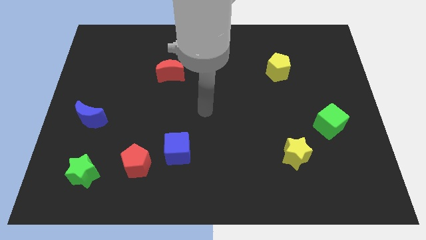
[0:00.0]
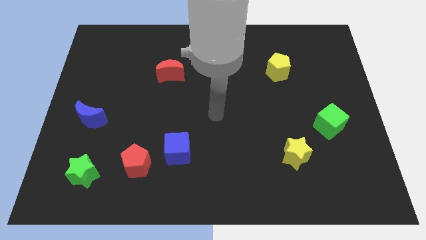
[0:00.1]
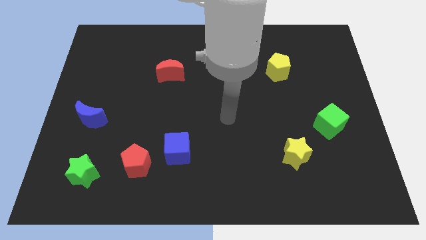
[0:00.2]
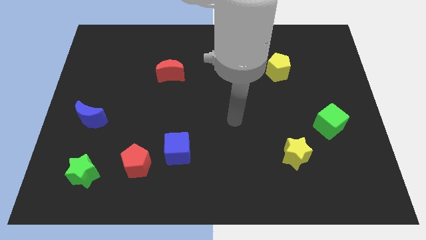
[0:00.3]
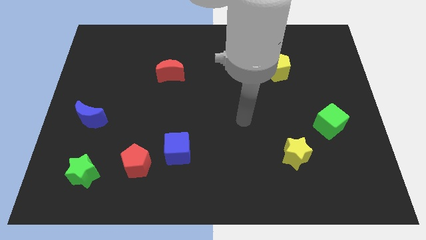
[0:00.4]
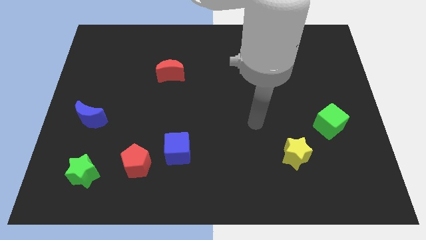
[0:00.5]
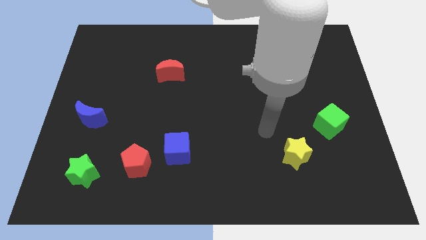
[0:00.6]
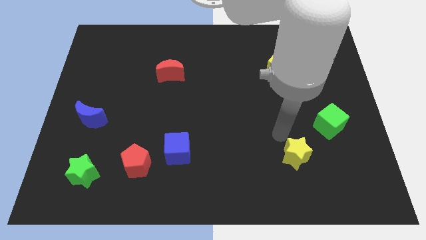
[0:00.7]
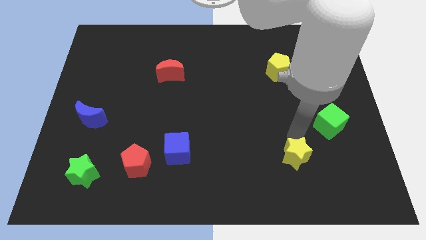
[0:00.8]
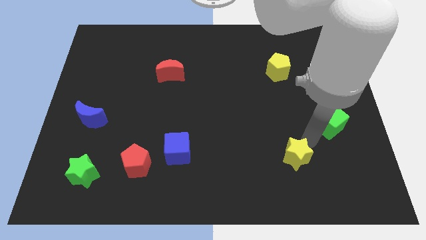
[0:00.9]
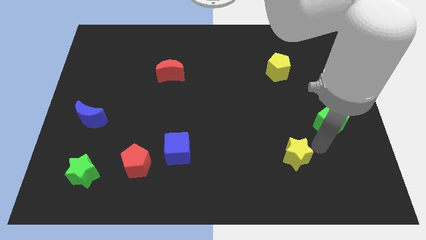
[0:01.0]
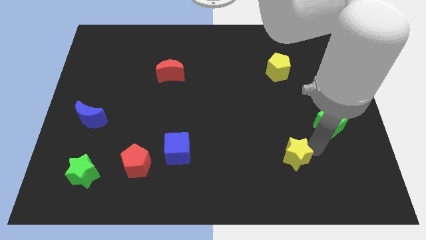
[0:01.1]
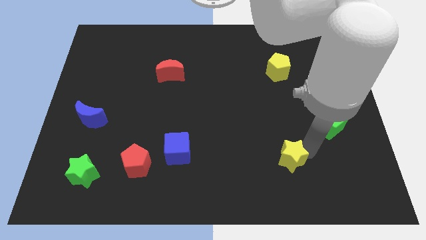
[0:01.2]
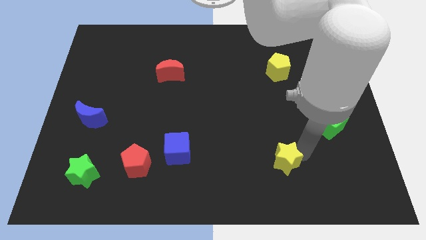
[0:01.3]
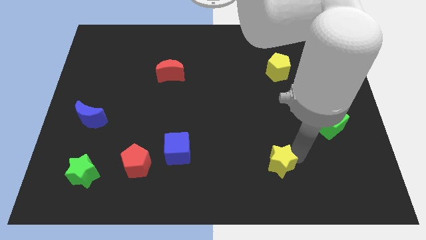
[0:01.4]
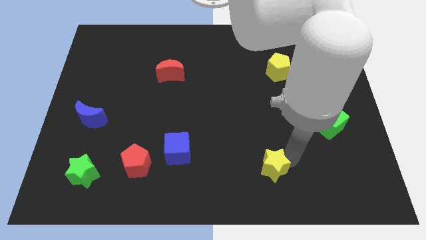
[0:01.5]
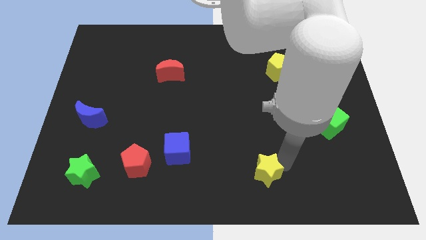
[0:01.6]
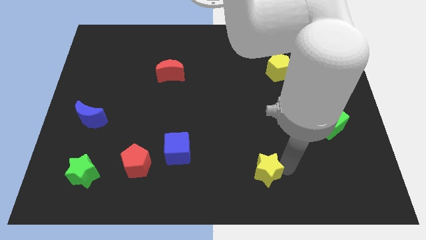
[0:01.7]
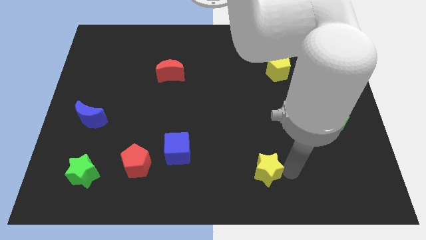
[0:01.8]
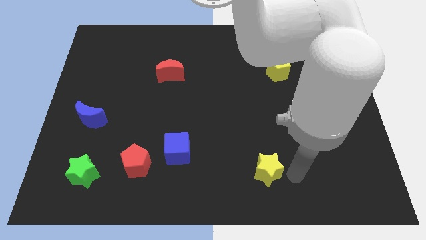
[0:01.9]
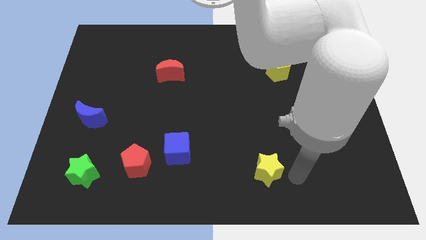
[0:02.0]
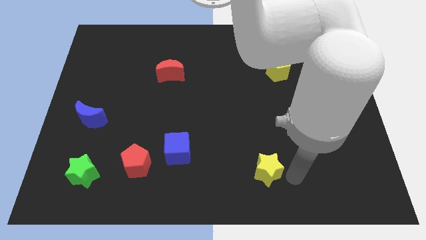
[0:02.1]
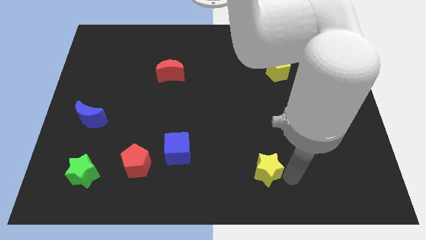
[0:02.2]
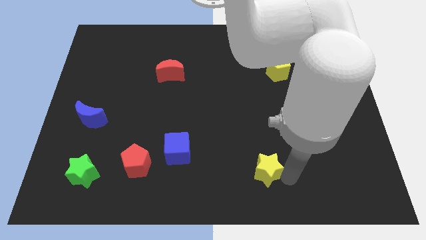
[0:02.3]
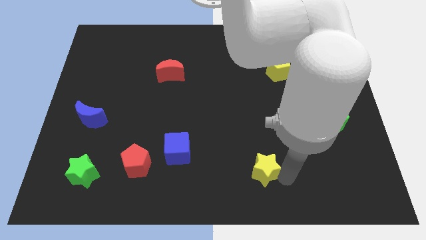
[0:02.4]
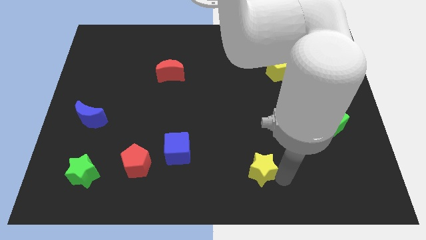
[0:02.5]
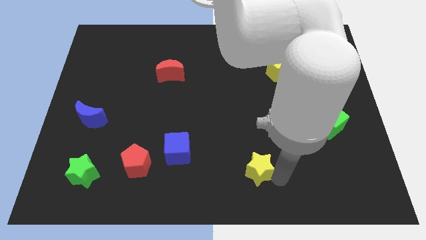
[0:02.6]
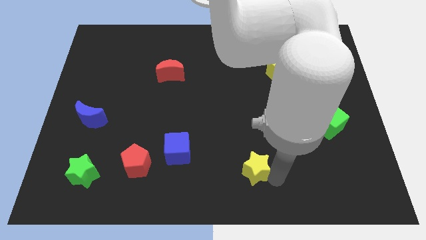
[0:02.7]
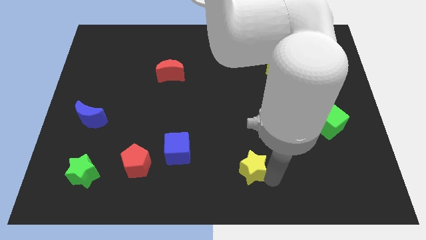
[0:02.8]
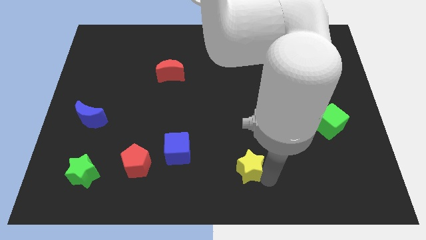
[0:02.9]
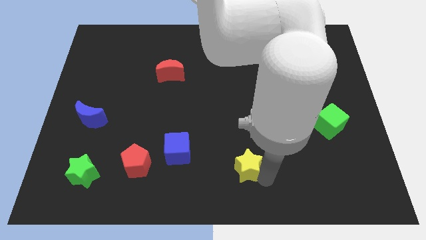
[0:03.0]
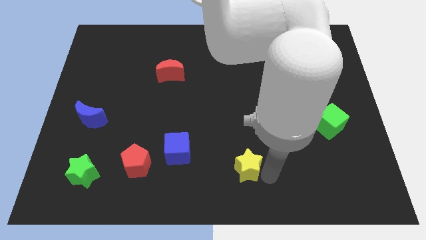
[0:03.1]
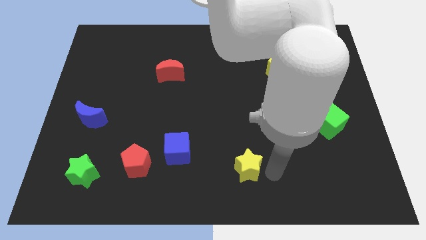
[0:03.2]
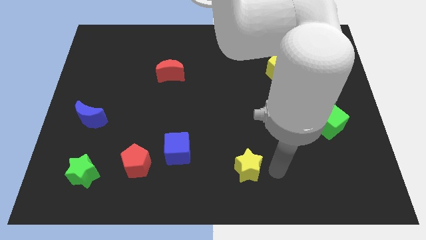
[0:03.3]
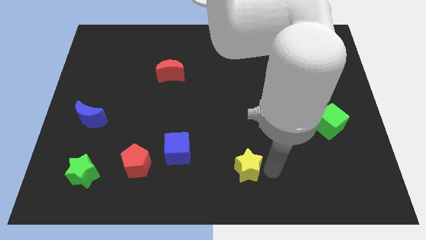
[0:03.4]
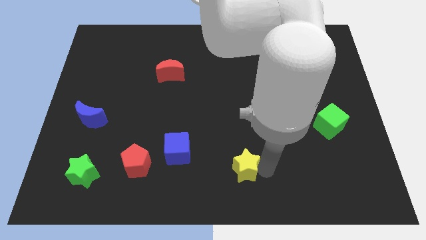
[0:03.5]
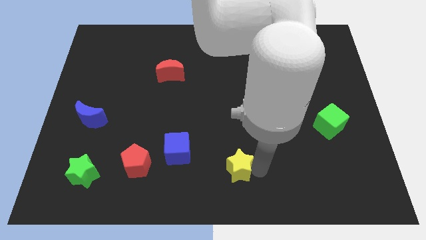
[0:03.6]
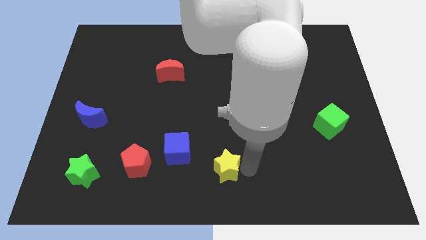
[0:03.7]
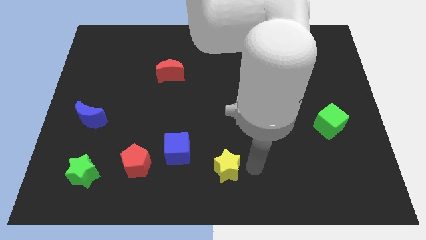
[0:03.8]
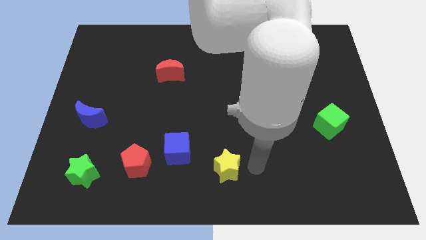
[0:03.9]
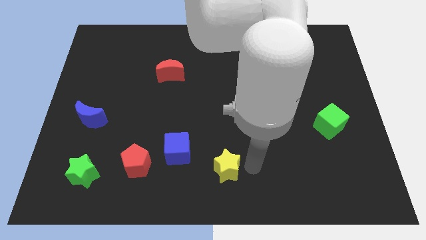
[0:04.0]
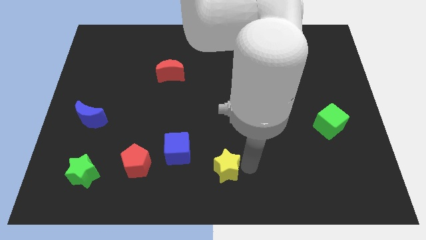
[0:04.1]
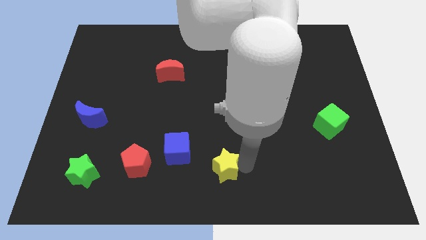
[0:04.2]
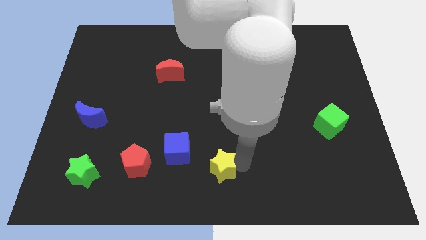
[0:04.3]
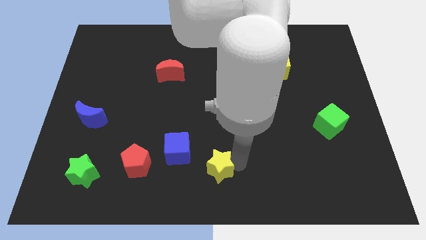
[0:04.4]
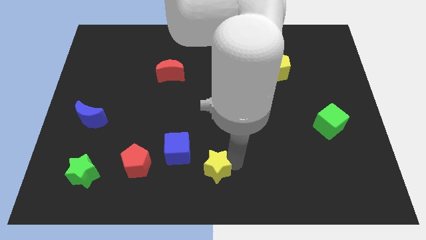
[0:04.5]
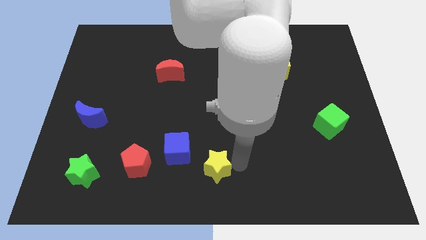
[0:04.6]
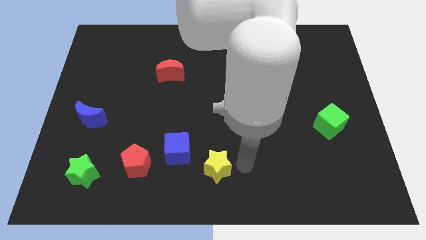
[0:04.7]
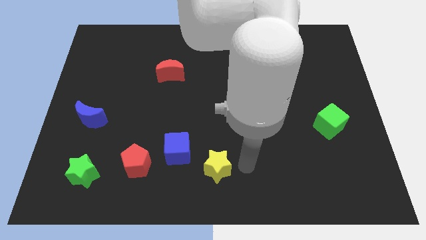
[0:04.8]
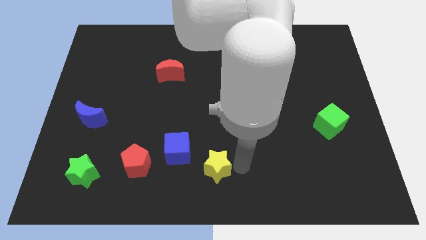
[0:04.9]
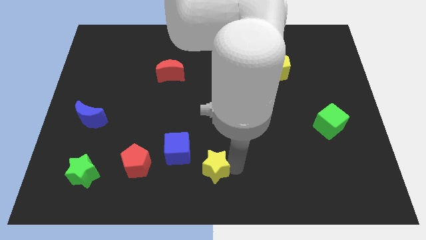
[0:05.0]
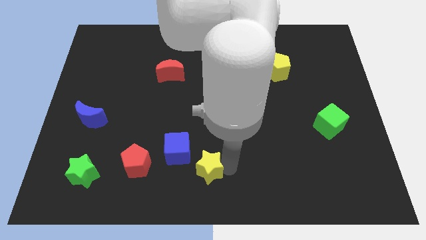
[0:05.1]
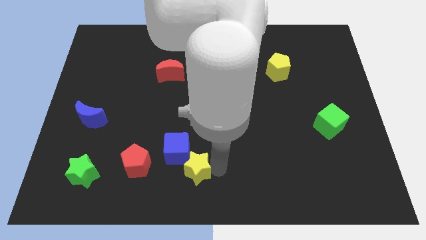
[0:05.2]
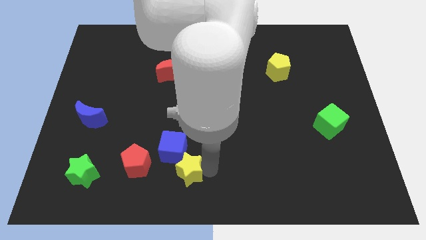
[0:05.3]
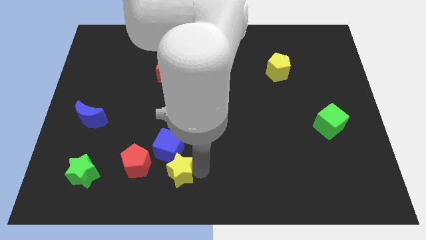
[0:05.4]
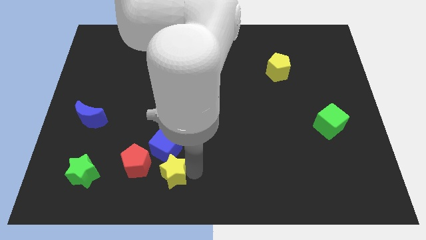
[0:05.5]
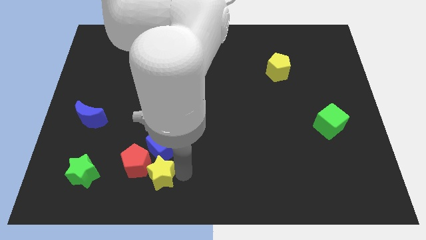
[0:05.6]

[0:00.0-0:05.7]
put the yellow star to the right side of the green star

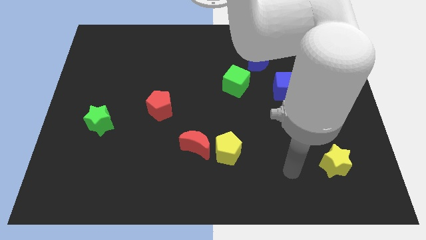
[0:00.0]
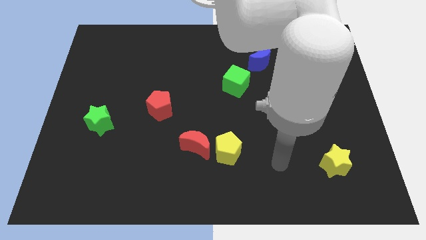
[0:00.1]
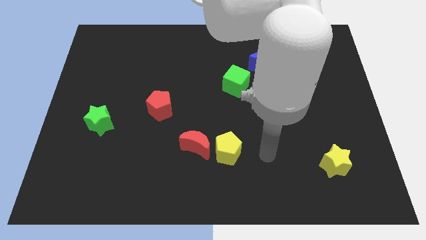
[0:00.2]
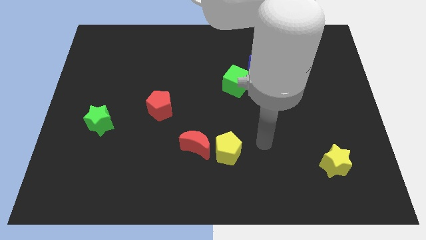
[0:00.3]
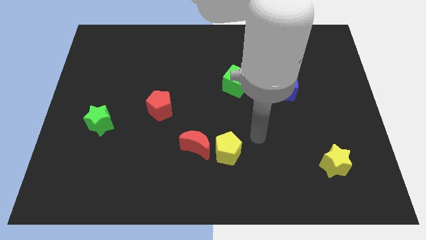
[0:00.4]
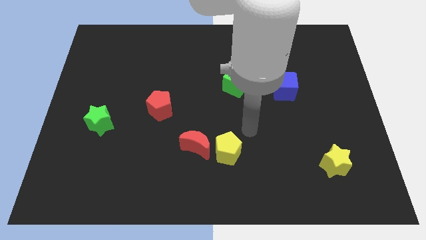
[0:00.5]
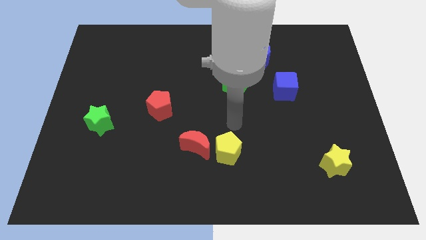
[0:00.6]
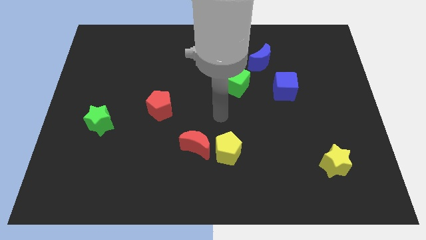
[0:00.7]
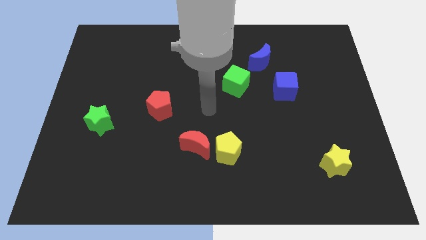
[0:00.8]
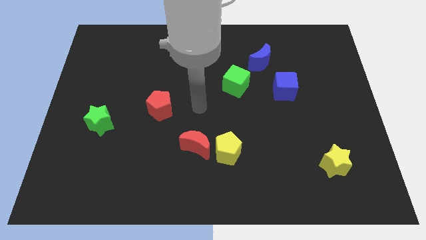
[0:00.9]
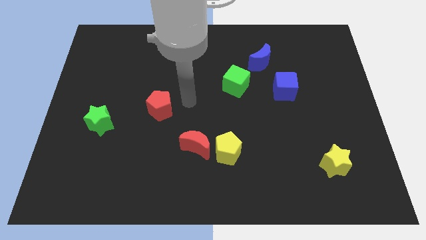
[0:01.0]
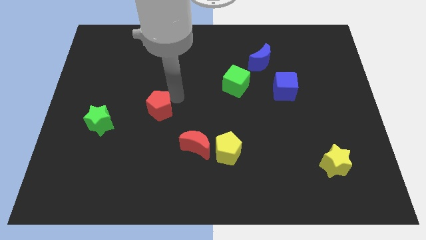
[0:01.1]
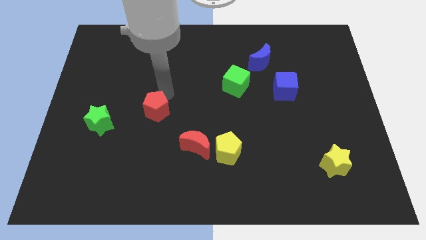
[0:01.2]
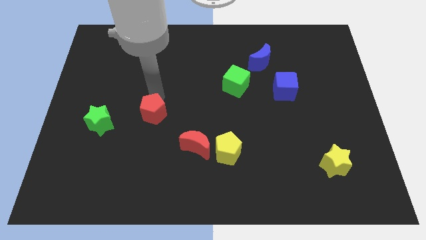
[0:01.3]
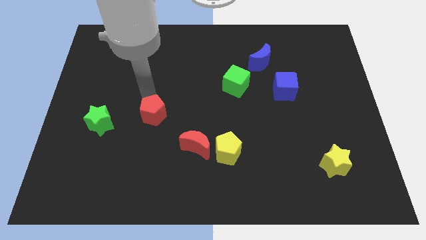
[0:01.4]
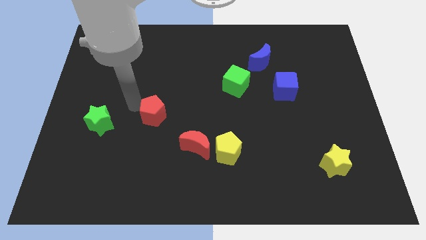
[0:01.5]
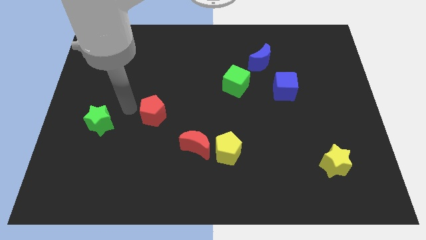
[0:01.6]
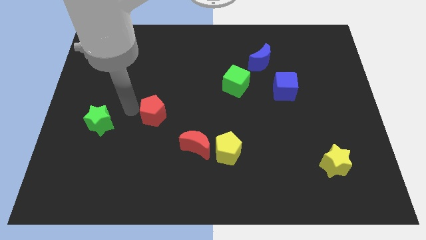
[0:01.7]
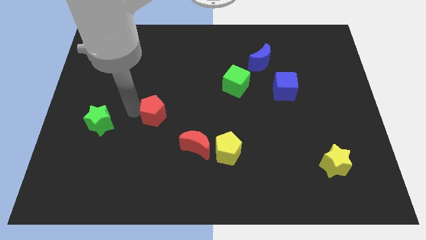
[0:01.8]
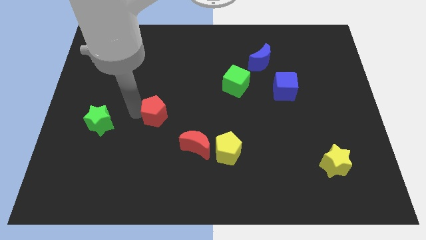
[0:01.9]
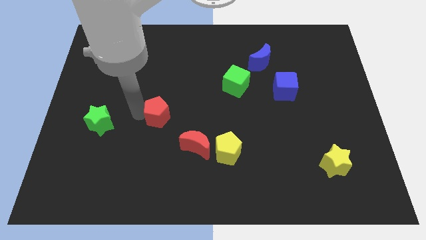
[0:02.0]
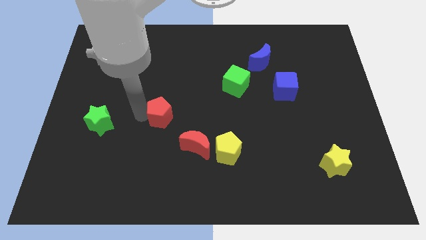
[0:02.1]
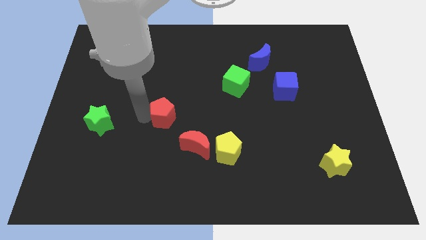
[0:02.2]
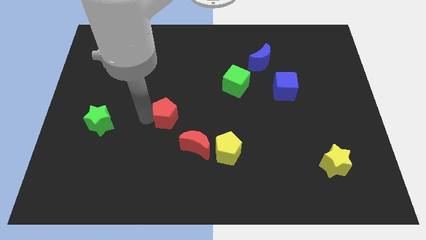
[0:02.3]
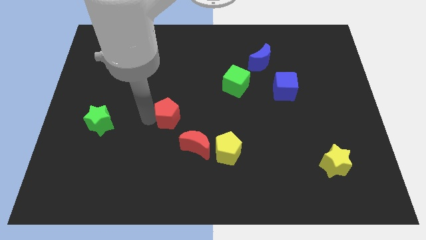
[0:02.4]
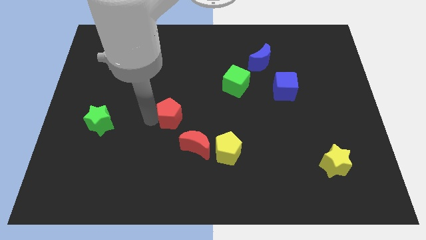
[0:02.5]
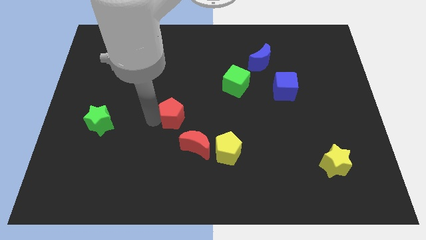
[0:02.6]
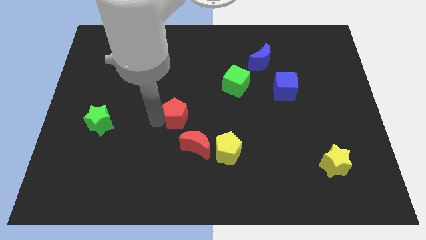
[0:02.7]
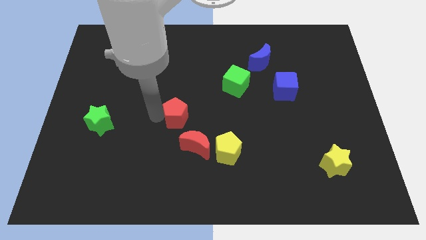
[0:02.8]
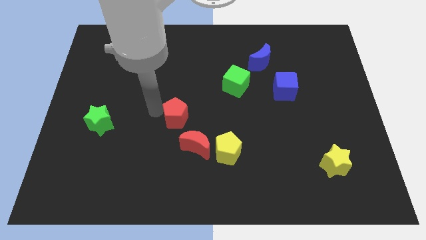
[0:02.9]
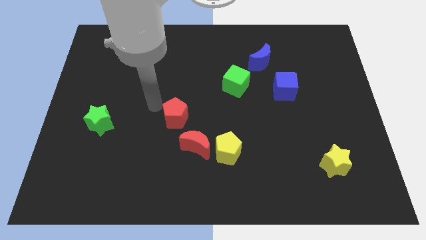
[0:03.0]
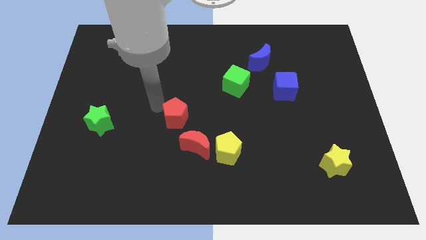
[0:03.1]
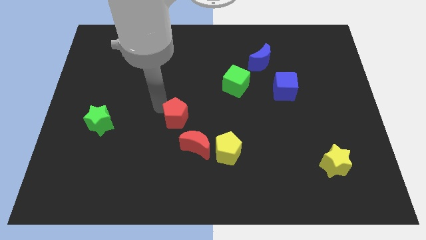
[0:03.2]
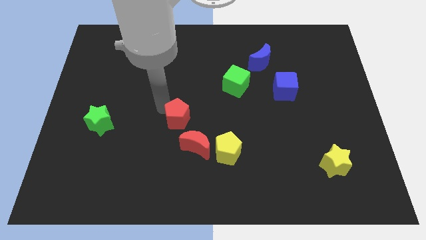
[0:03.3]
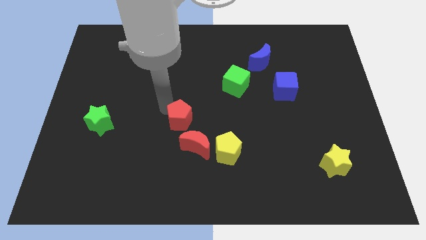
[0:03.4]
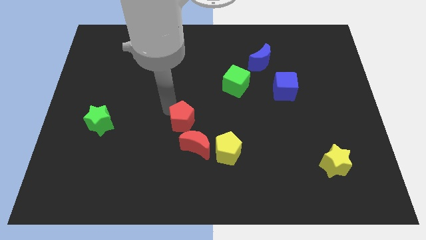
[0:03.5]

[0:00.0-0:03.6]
move the red pentagon diagonally up and to the left of the yellow pentagon
